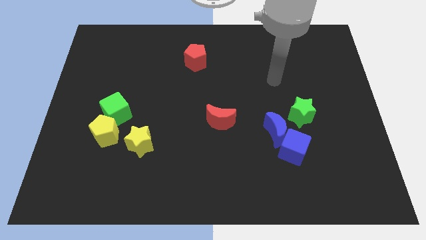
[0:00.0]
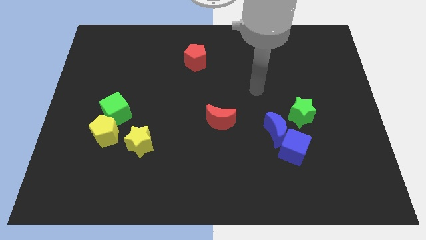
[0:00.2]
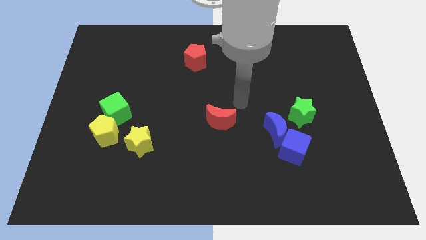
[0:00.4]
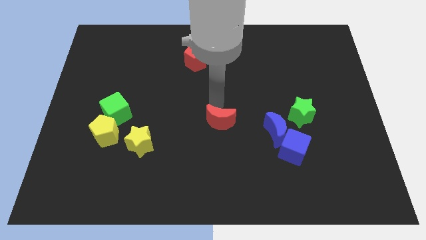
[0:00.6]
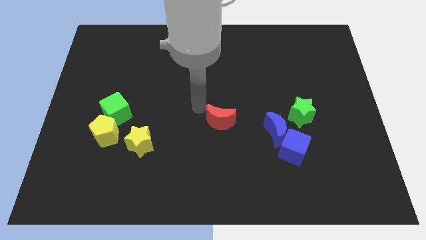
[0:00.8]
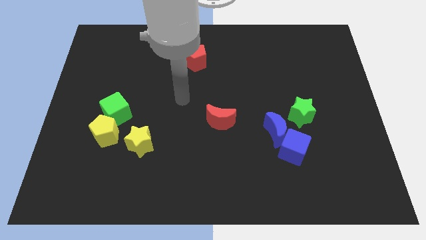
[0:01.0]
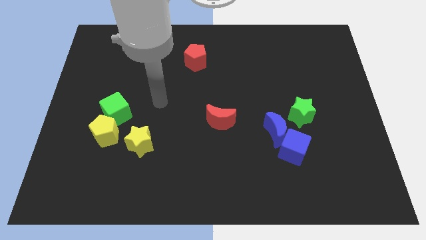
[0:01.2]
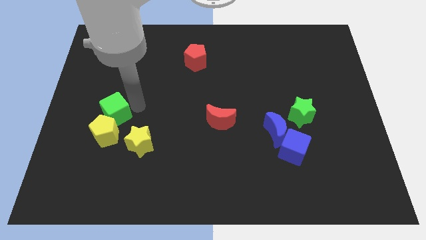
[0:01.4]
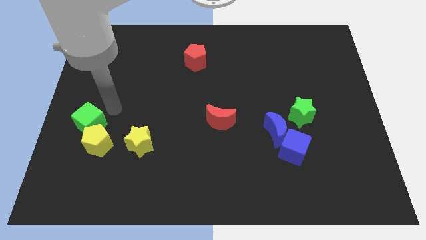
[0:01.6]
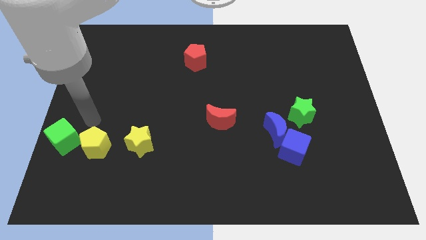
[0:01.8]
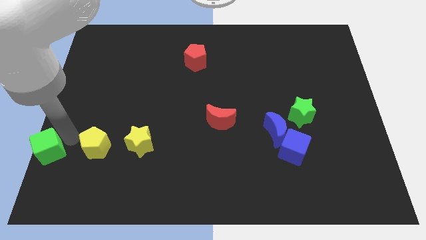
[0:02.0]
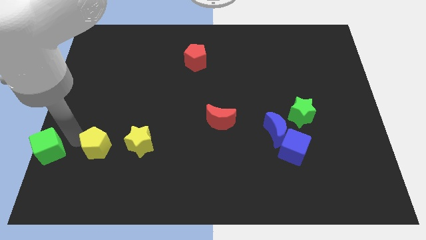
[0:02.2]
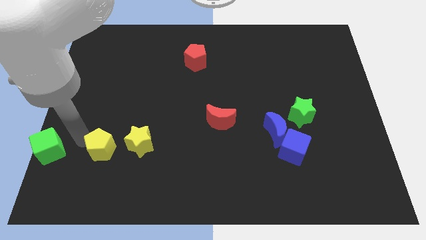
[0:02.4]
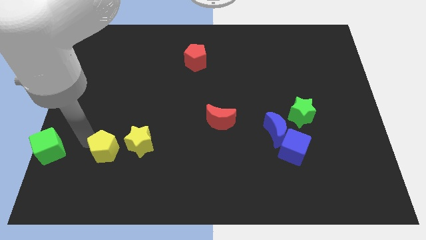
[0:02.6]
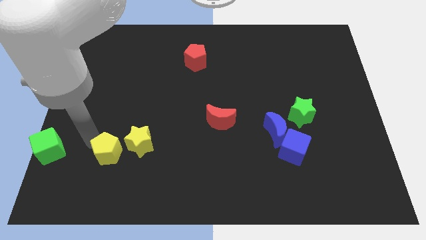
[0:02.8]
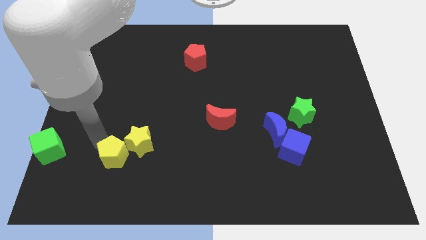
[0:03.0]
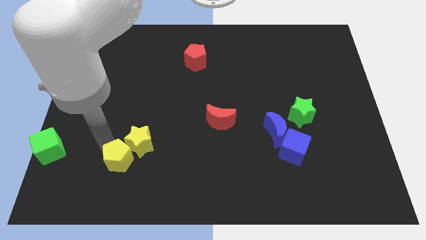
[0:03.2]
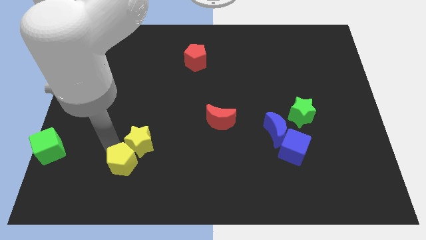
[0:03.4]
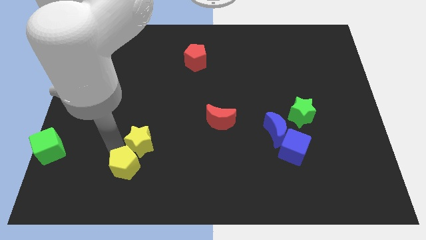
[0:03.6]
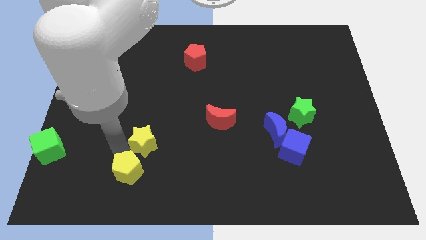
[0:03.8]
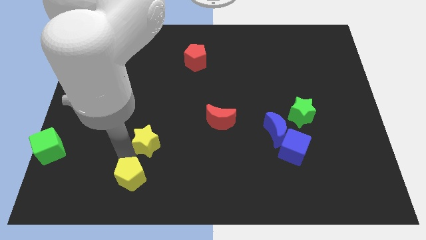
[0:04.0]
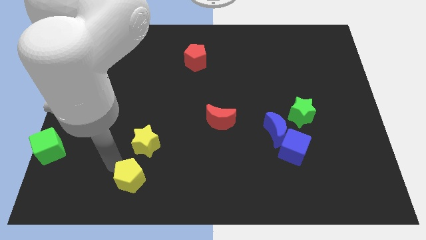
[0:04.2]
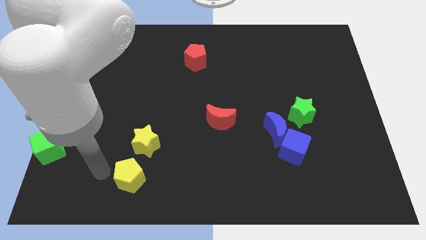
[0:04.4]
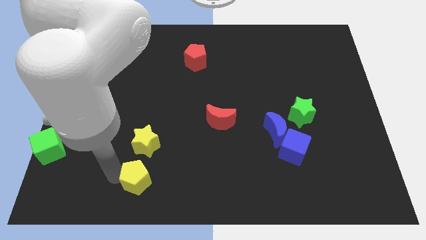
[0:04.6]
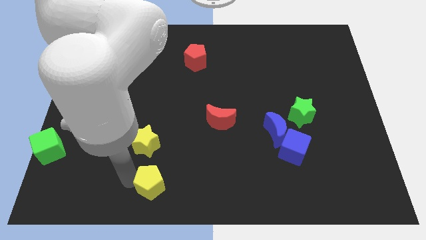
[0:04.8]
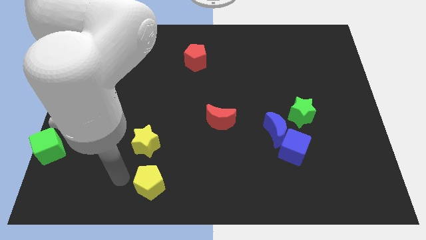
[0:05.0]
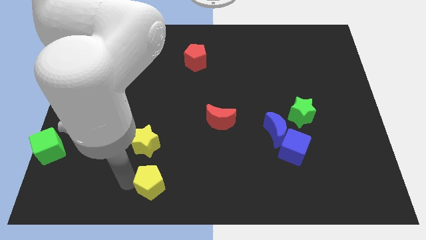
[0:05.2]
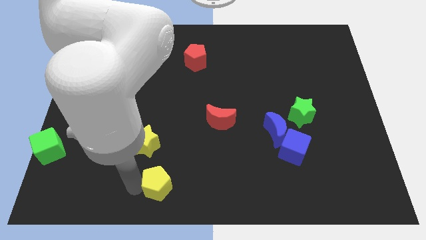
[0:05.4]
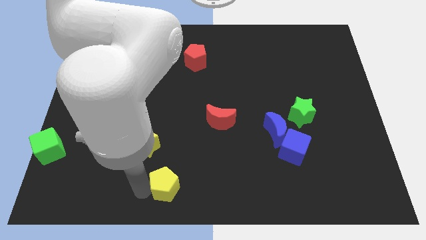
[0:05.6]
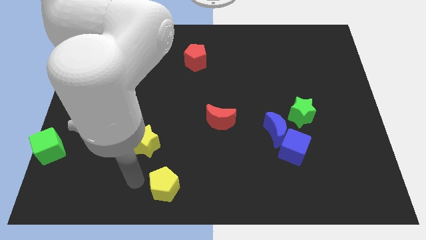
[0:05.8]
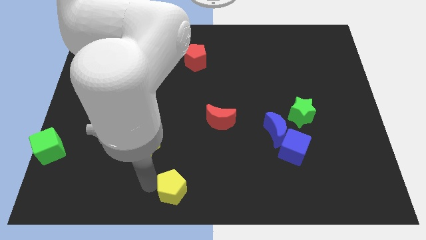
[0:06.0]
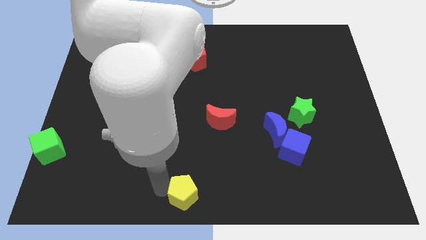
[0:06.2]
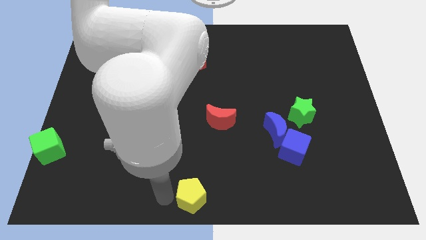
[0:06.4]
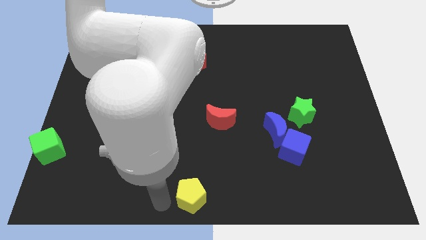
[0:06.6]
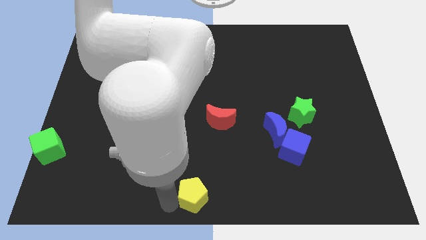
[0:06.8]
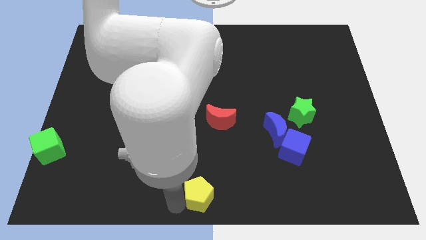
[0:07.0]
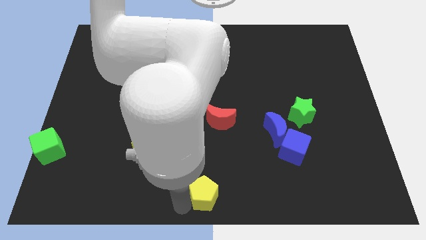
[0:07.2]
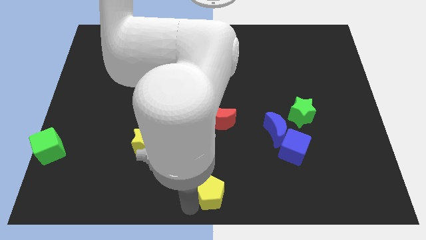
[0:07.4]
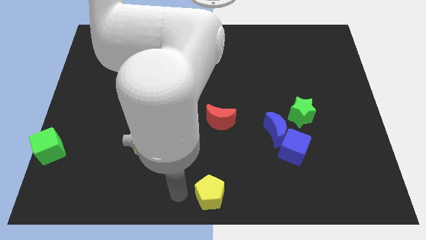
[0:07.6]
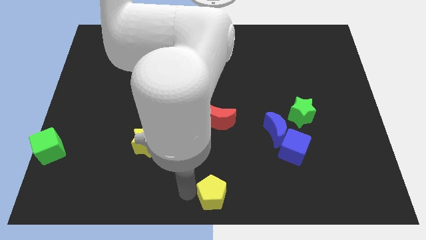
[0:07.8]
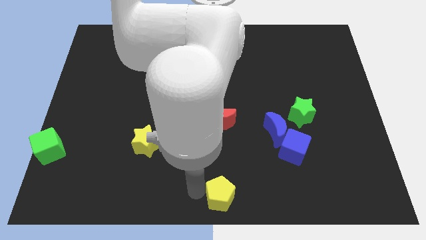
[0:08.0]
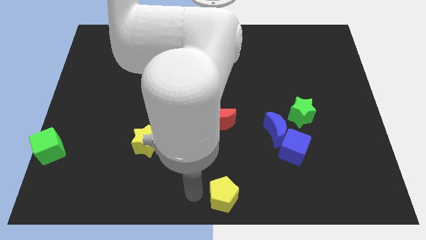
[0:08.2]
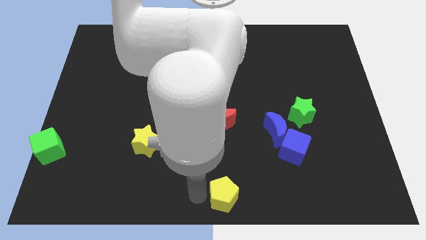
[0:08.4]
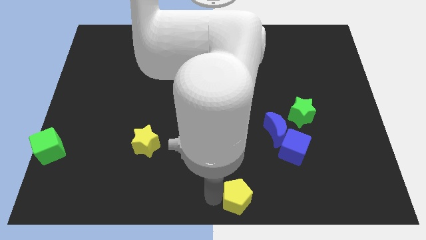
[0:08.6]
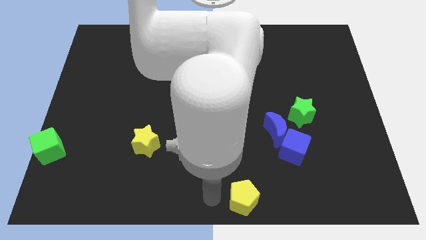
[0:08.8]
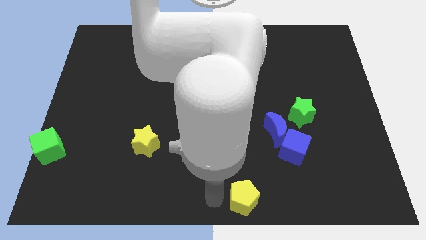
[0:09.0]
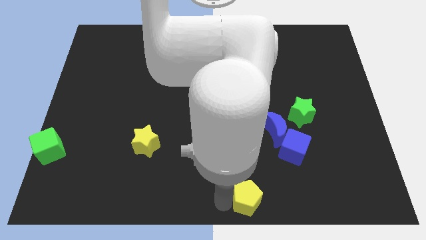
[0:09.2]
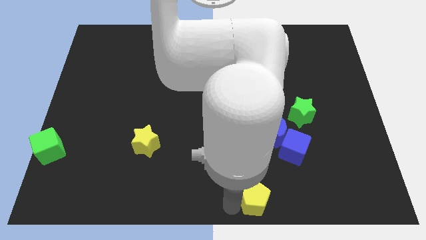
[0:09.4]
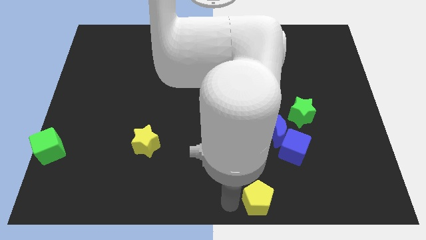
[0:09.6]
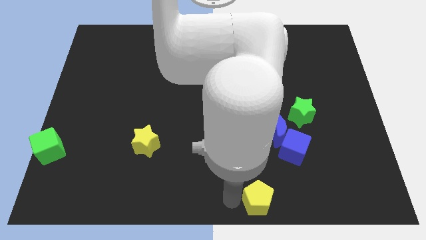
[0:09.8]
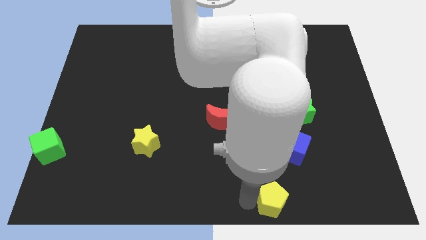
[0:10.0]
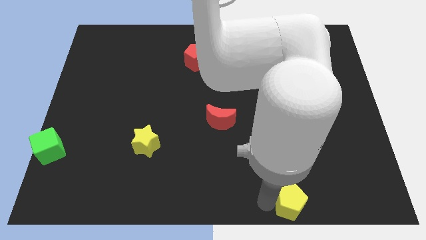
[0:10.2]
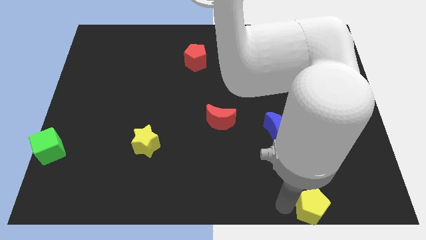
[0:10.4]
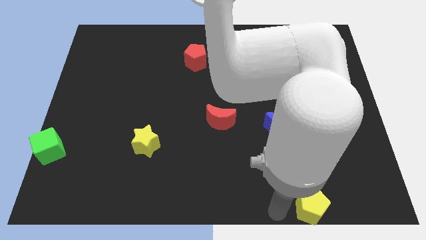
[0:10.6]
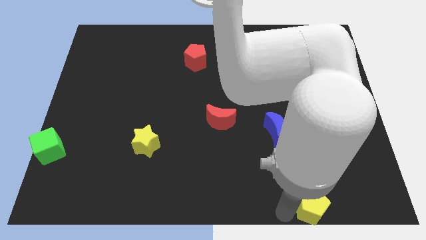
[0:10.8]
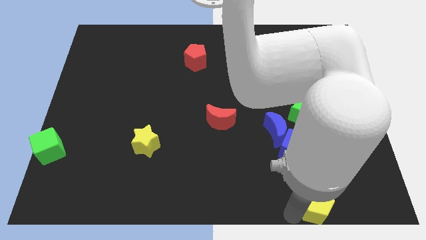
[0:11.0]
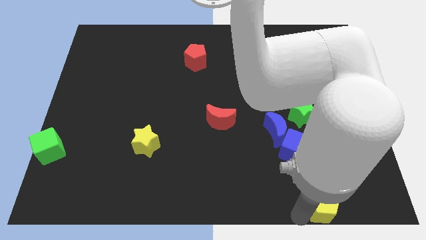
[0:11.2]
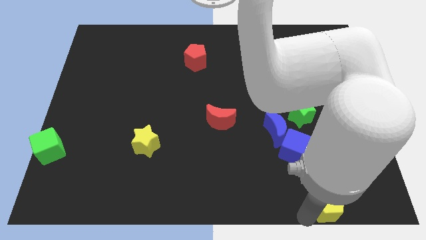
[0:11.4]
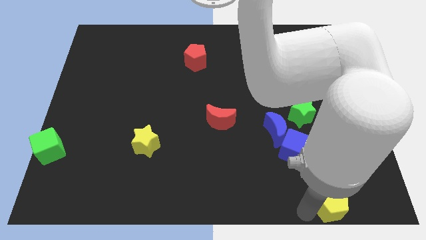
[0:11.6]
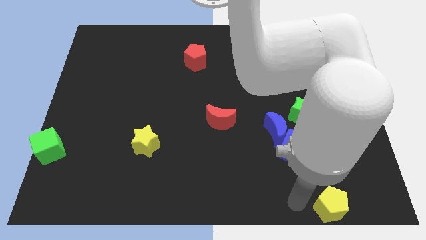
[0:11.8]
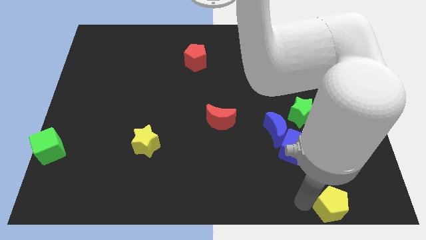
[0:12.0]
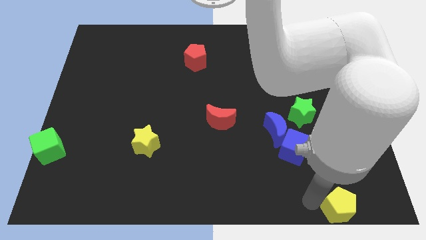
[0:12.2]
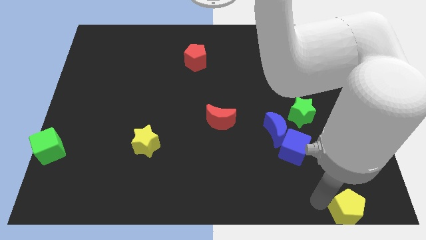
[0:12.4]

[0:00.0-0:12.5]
slide the yellow pentagon to the bottom right

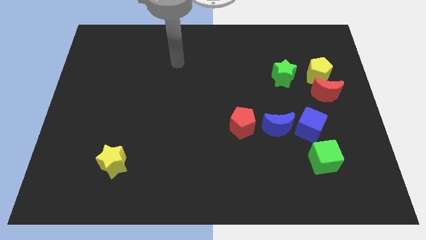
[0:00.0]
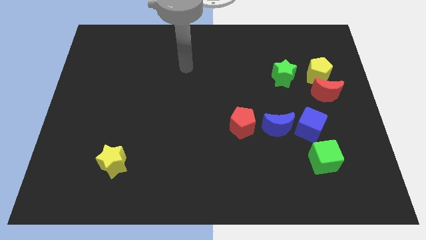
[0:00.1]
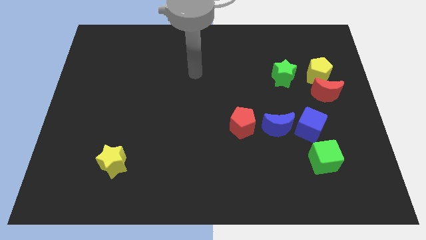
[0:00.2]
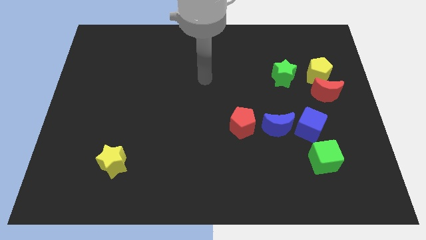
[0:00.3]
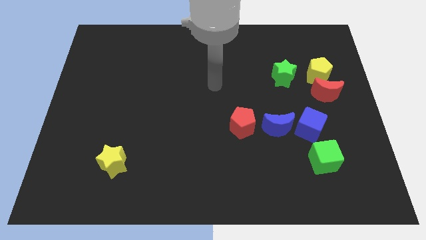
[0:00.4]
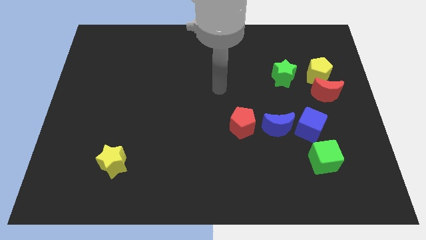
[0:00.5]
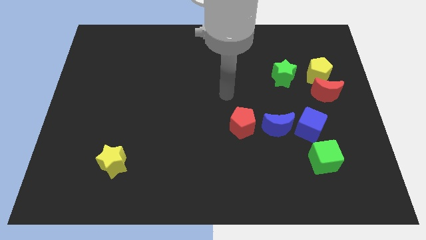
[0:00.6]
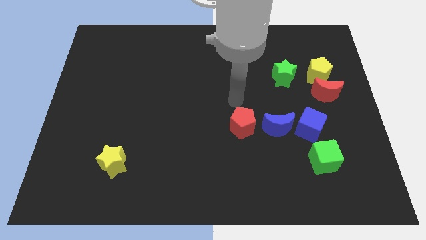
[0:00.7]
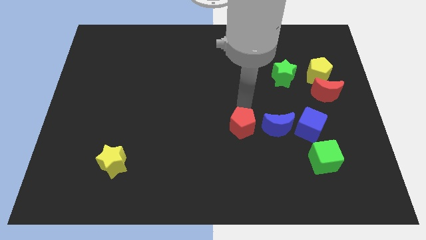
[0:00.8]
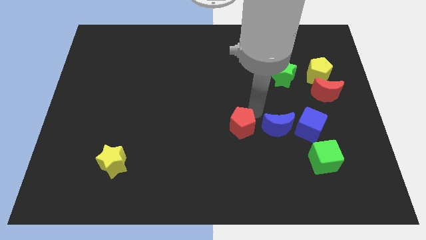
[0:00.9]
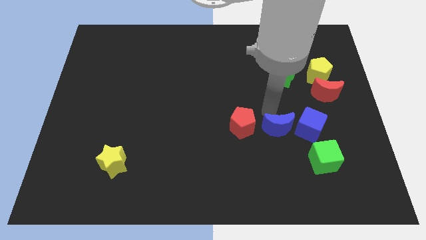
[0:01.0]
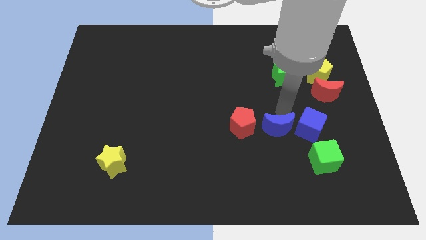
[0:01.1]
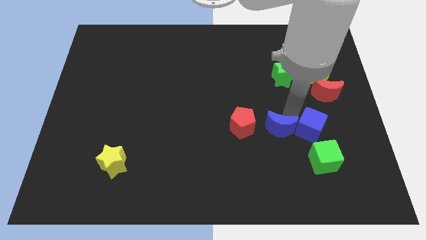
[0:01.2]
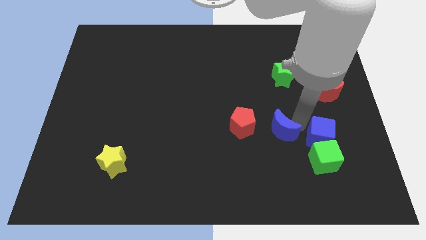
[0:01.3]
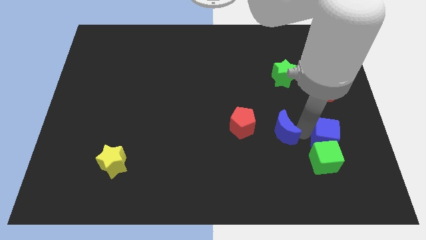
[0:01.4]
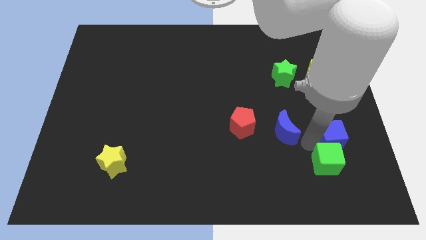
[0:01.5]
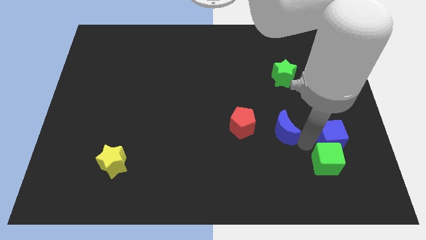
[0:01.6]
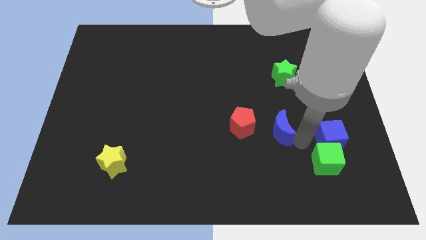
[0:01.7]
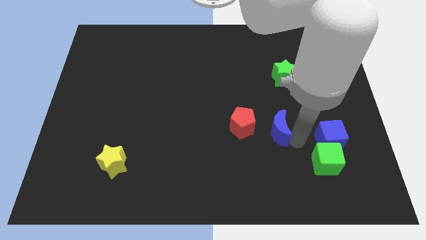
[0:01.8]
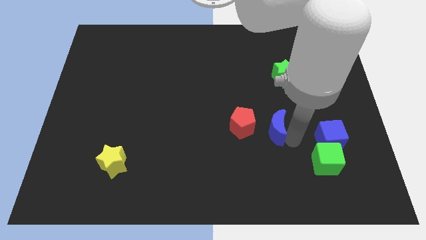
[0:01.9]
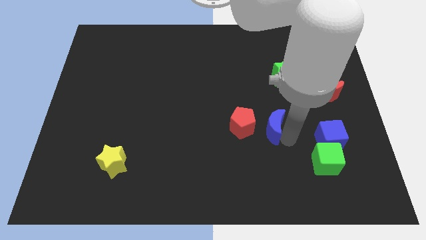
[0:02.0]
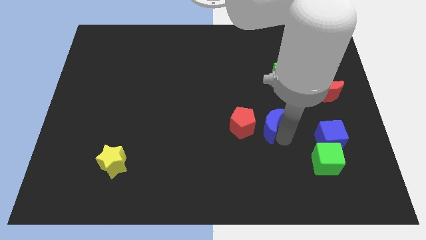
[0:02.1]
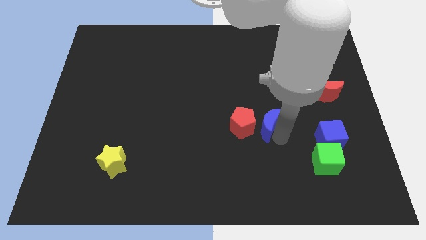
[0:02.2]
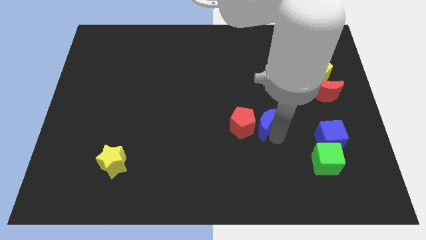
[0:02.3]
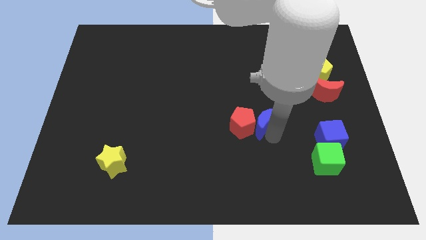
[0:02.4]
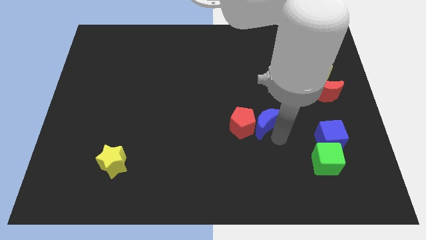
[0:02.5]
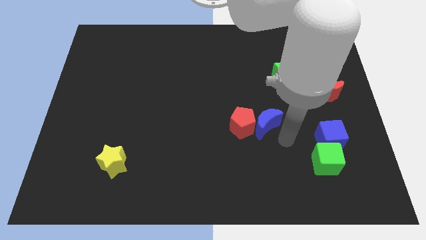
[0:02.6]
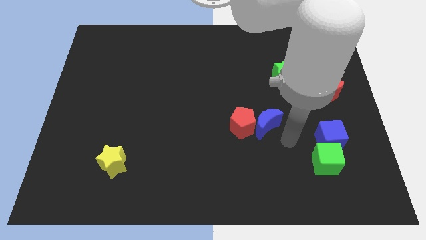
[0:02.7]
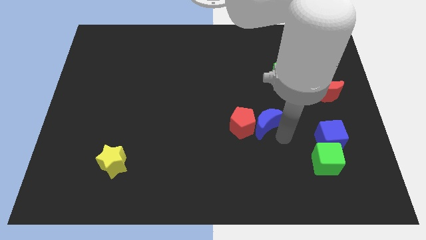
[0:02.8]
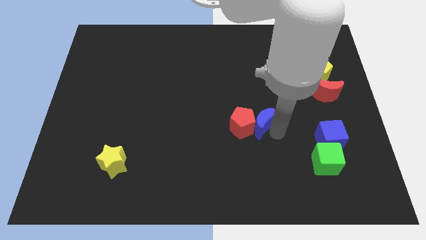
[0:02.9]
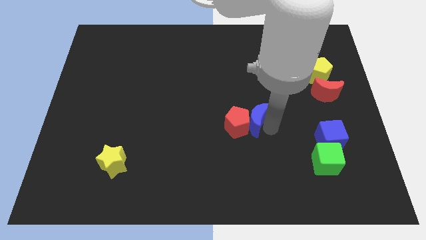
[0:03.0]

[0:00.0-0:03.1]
put the blue moon to the middle of the board
